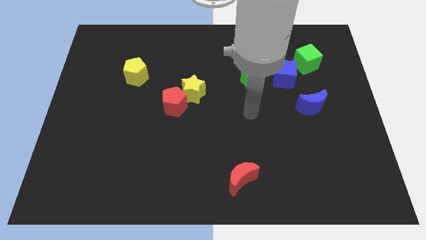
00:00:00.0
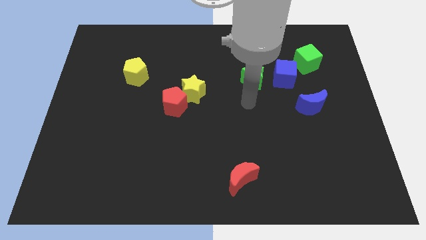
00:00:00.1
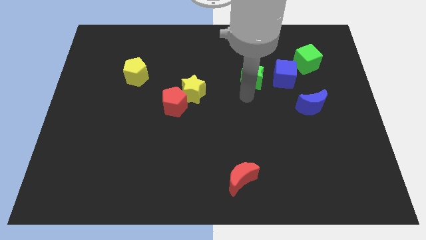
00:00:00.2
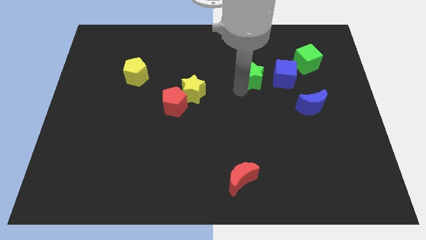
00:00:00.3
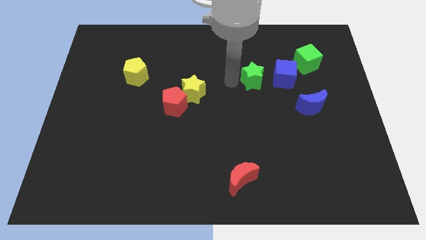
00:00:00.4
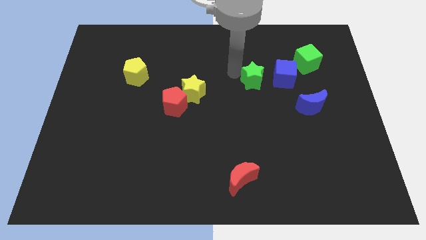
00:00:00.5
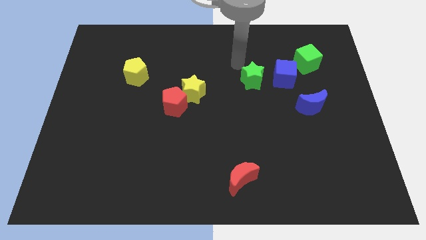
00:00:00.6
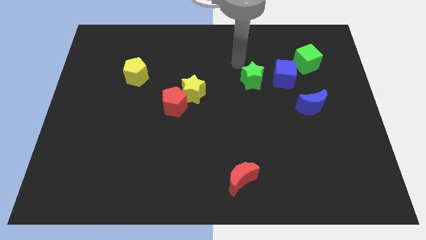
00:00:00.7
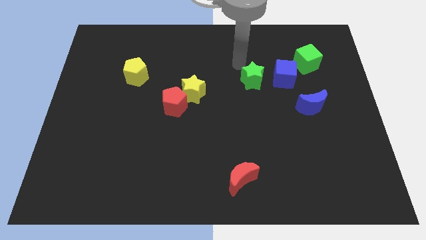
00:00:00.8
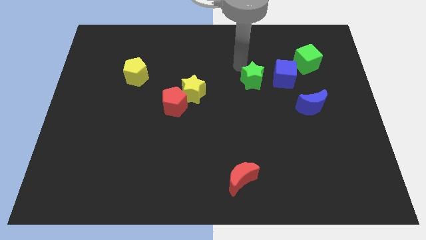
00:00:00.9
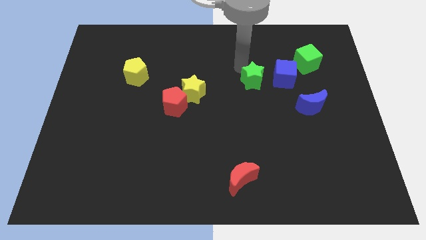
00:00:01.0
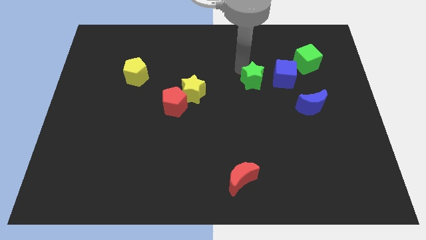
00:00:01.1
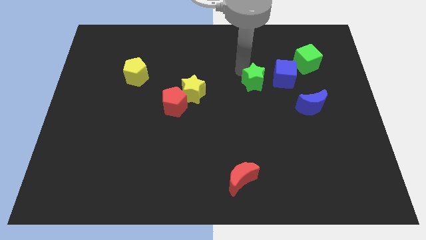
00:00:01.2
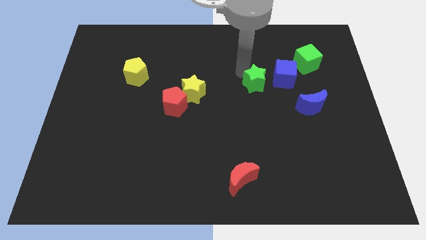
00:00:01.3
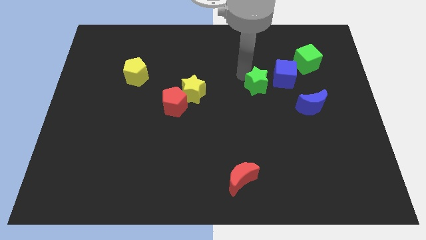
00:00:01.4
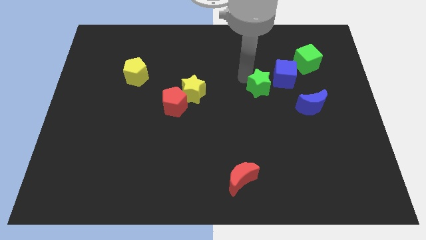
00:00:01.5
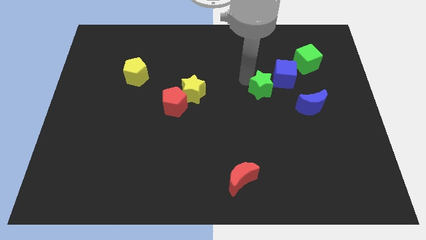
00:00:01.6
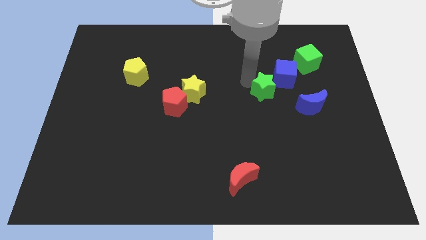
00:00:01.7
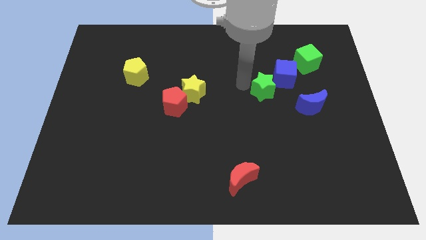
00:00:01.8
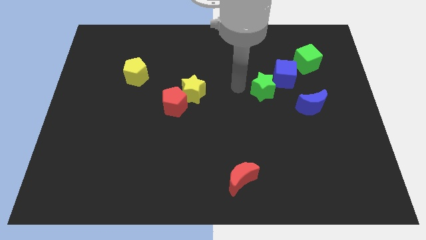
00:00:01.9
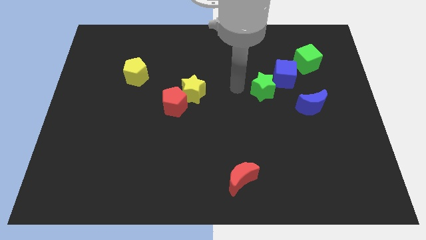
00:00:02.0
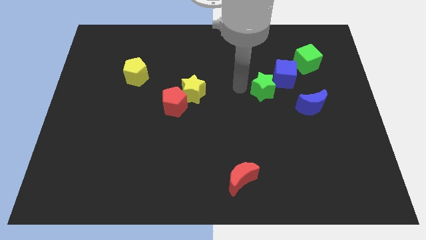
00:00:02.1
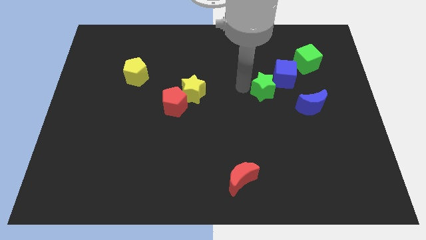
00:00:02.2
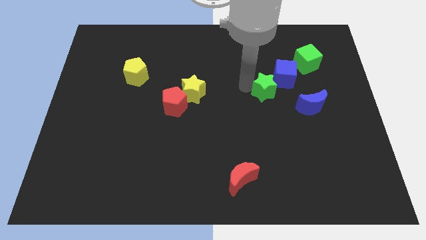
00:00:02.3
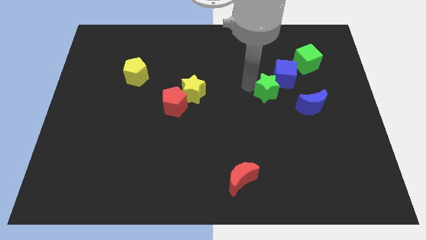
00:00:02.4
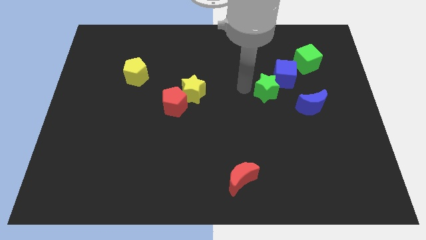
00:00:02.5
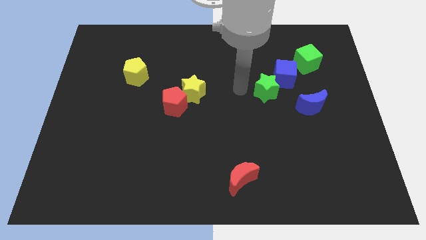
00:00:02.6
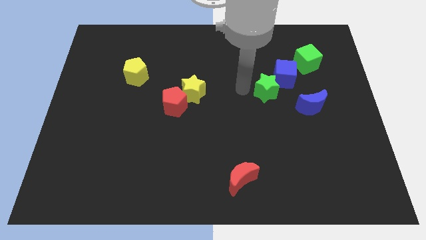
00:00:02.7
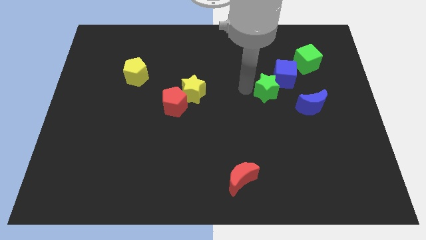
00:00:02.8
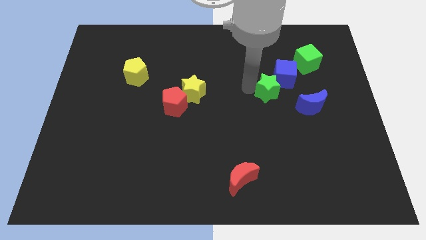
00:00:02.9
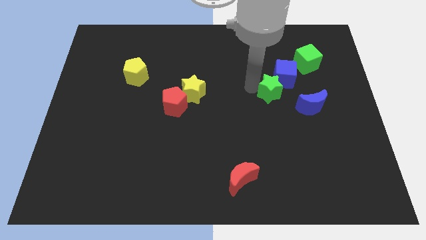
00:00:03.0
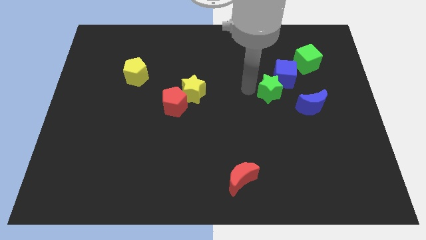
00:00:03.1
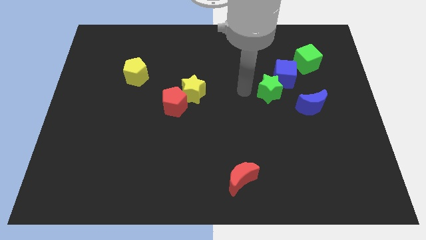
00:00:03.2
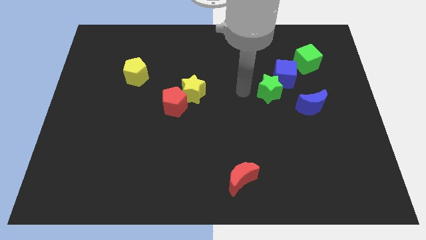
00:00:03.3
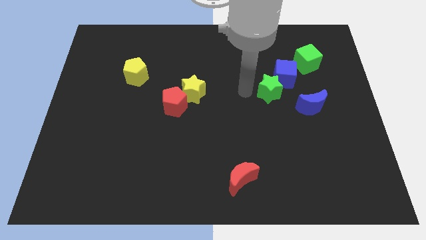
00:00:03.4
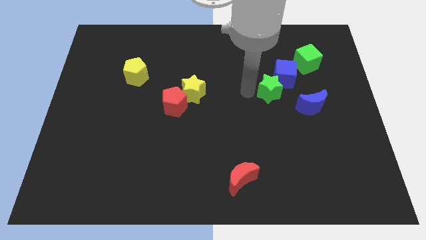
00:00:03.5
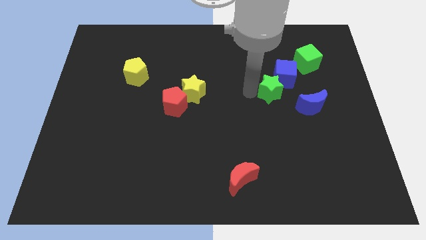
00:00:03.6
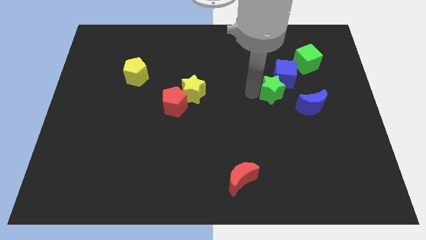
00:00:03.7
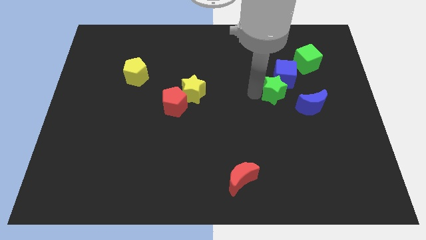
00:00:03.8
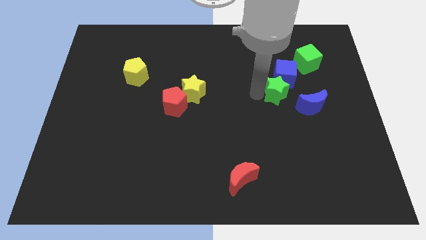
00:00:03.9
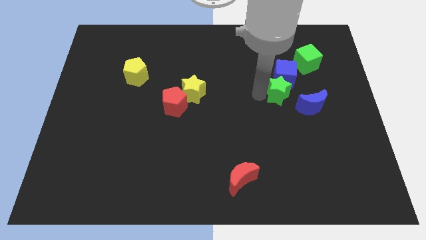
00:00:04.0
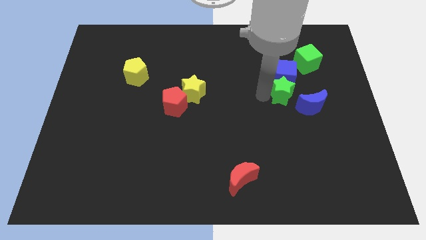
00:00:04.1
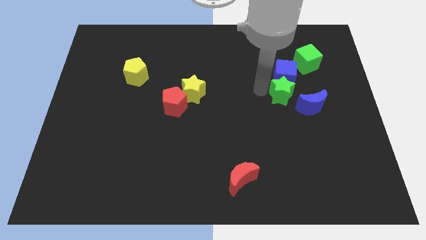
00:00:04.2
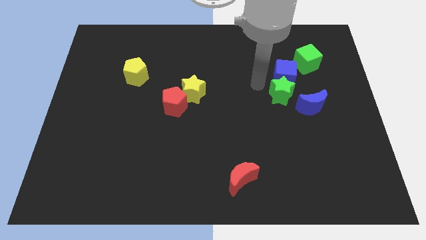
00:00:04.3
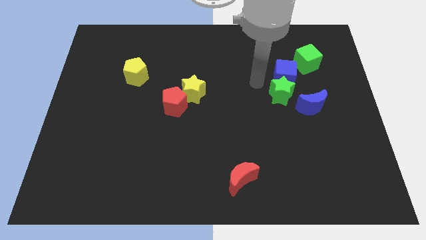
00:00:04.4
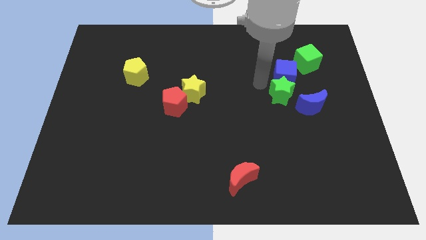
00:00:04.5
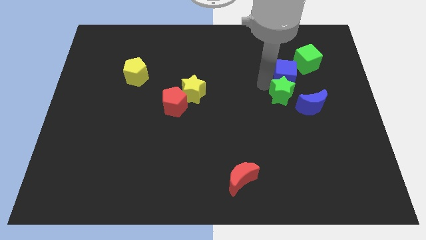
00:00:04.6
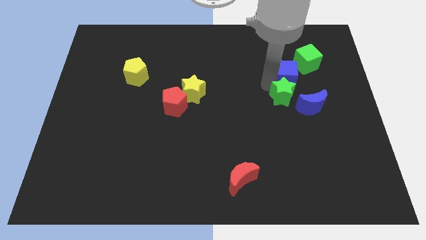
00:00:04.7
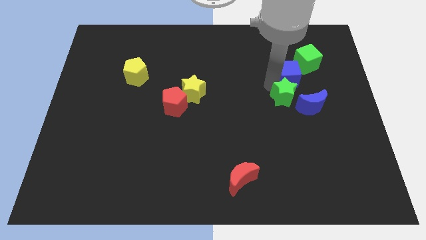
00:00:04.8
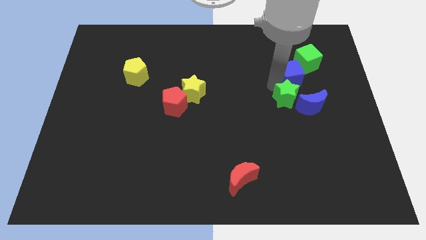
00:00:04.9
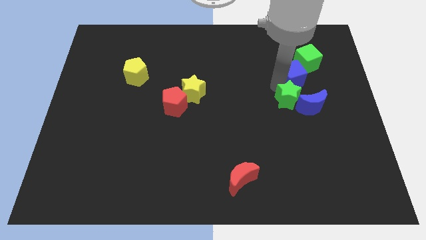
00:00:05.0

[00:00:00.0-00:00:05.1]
put the green star close to the blue moon

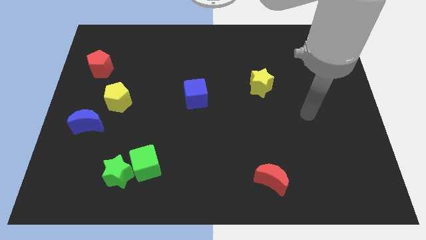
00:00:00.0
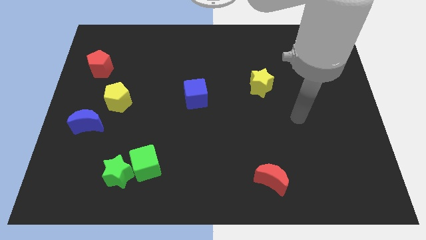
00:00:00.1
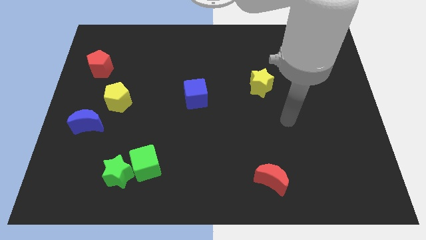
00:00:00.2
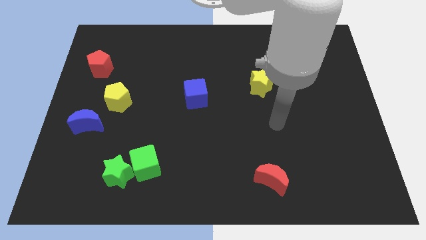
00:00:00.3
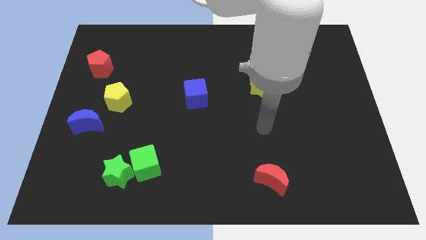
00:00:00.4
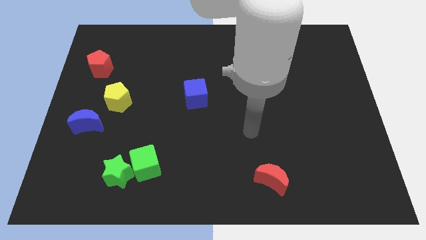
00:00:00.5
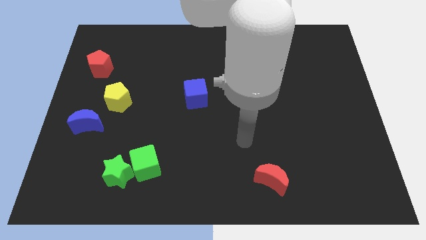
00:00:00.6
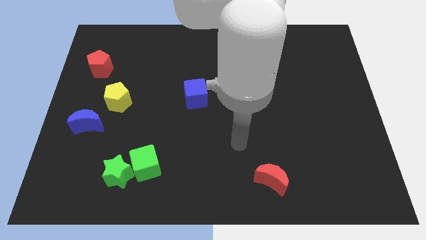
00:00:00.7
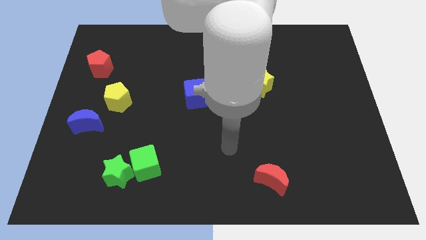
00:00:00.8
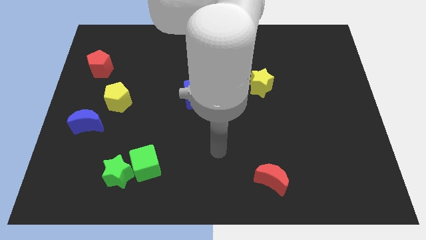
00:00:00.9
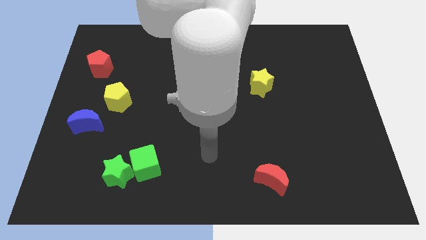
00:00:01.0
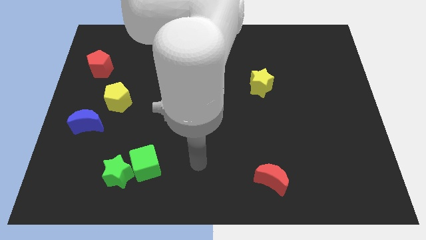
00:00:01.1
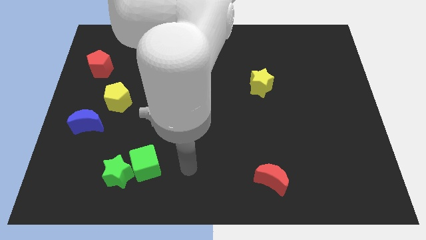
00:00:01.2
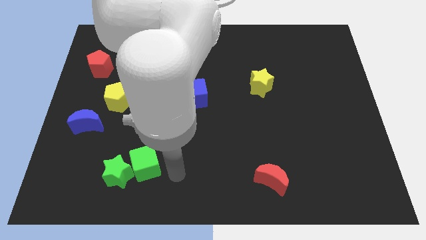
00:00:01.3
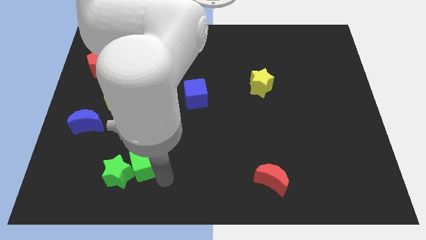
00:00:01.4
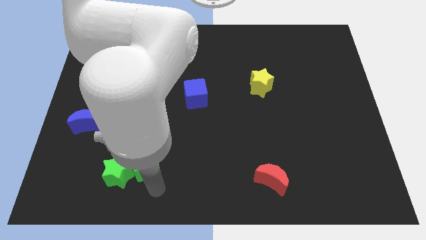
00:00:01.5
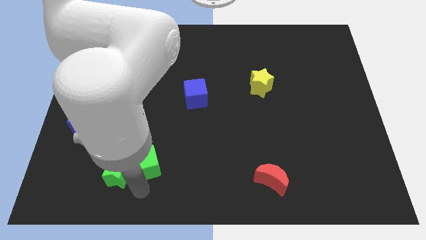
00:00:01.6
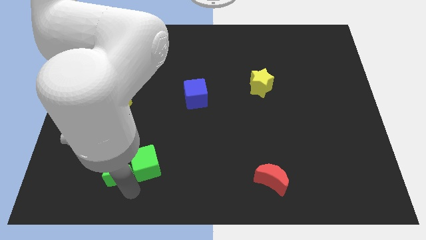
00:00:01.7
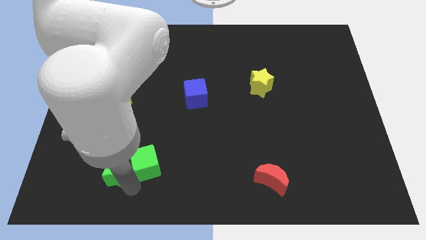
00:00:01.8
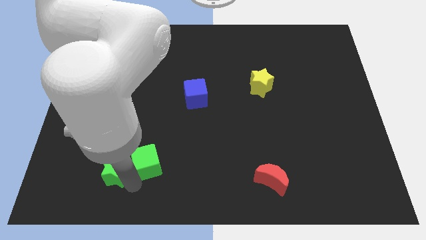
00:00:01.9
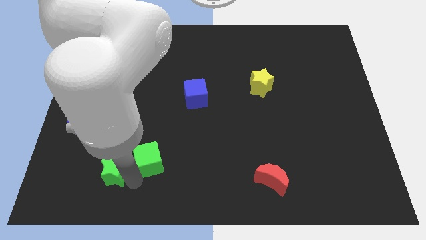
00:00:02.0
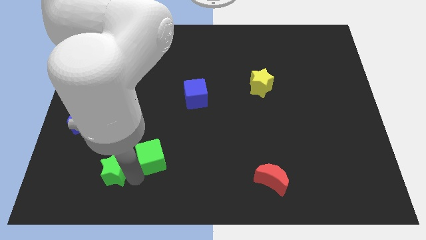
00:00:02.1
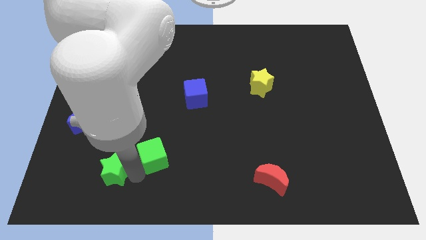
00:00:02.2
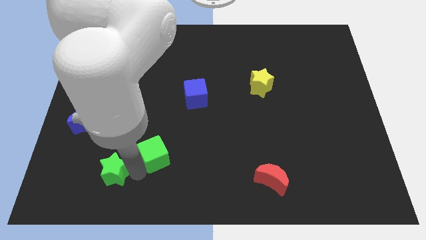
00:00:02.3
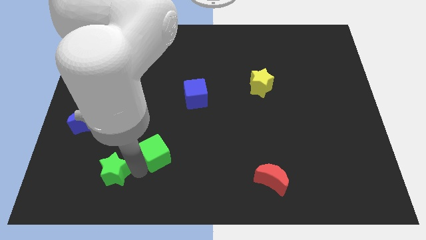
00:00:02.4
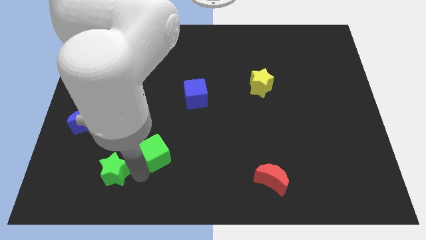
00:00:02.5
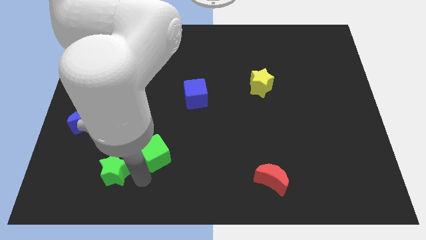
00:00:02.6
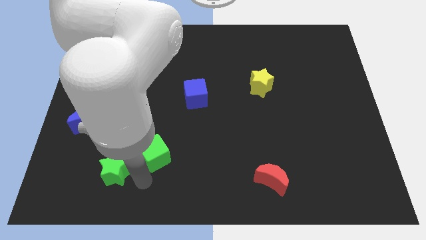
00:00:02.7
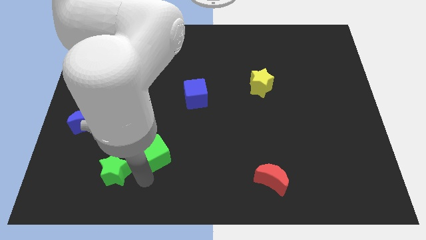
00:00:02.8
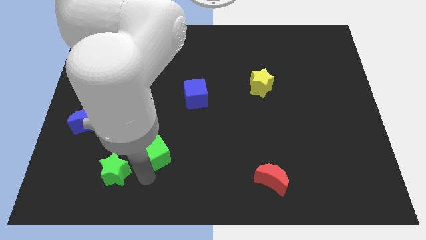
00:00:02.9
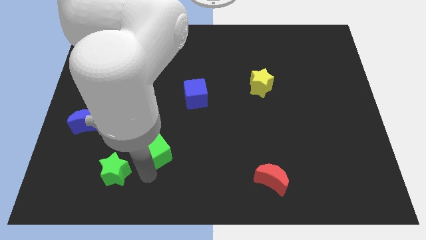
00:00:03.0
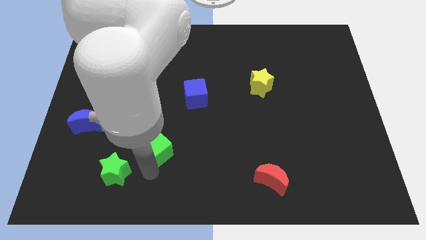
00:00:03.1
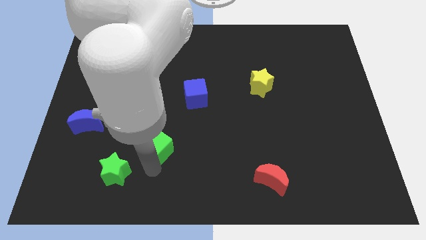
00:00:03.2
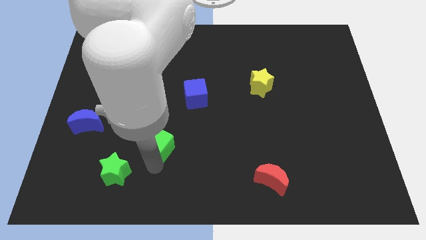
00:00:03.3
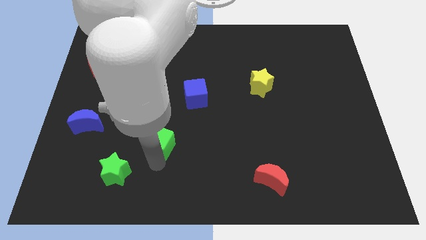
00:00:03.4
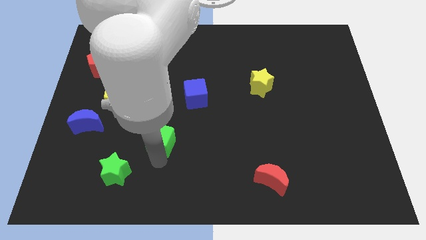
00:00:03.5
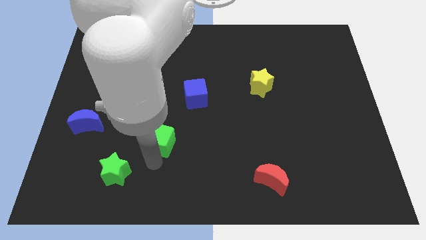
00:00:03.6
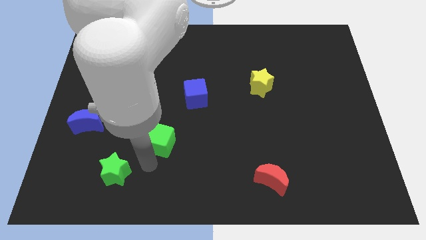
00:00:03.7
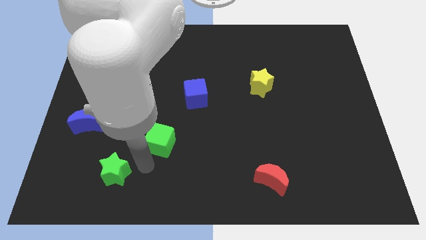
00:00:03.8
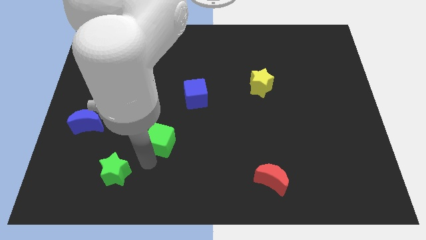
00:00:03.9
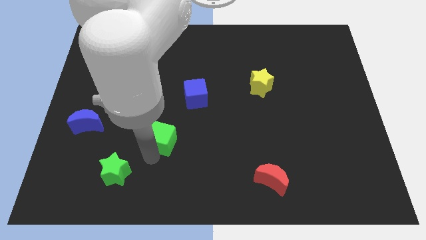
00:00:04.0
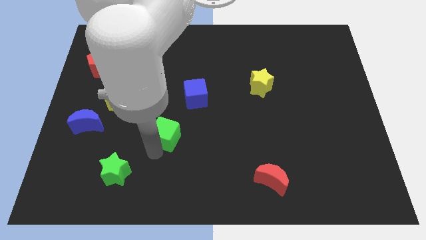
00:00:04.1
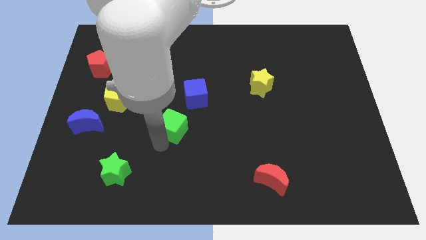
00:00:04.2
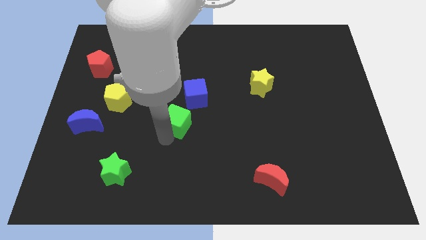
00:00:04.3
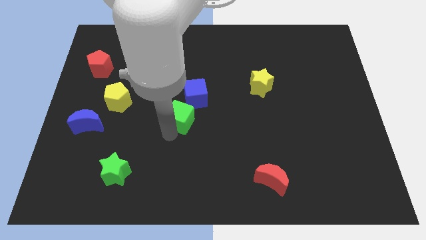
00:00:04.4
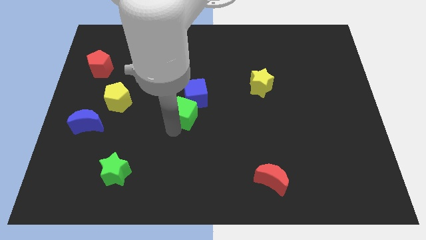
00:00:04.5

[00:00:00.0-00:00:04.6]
move the green cube close to the blue cube
